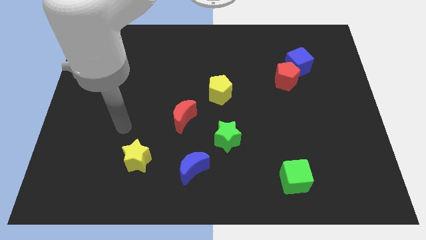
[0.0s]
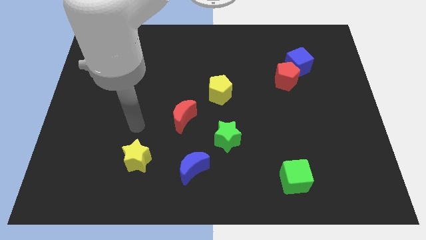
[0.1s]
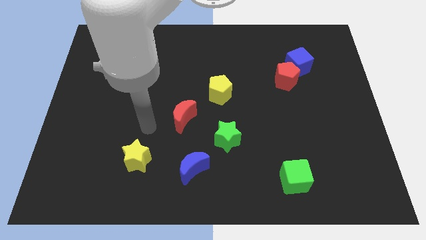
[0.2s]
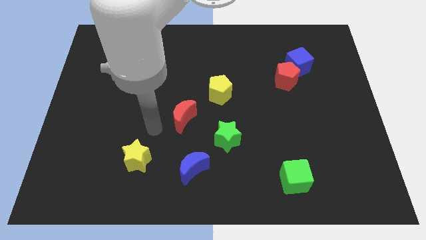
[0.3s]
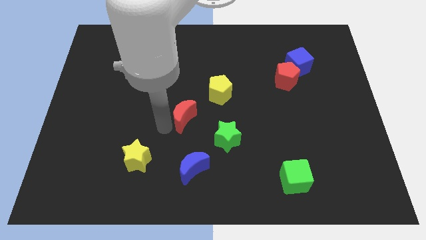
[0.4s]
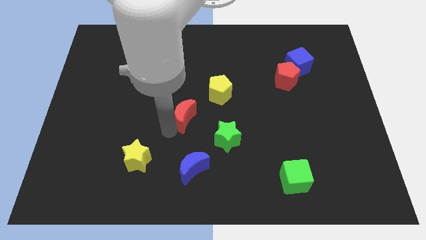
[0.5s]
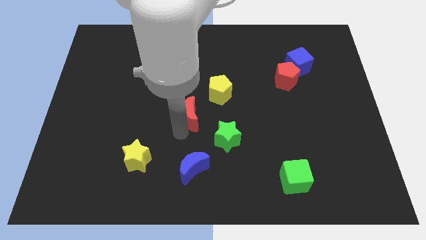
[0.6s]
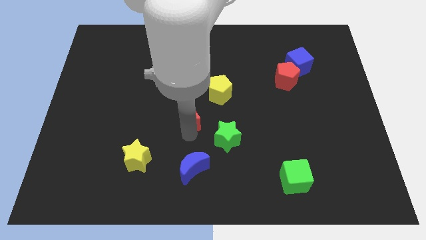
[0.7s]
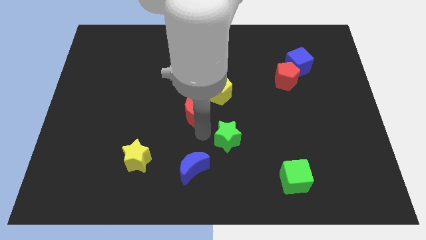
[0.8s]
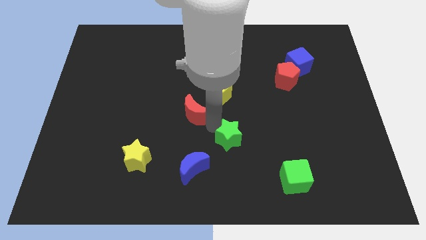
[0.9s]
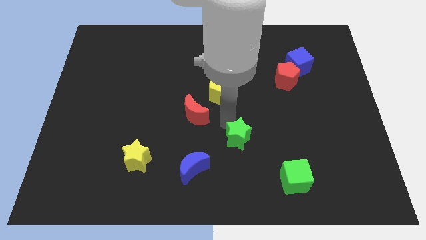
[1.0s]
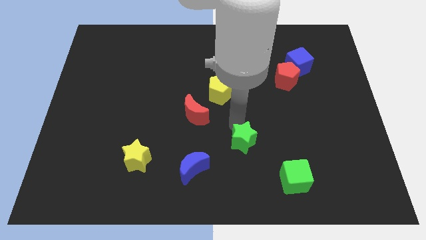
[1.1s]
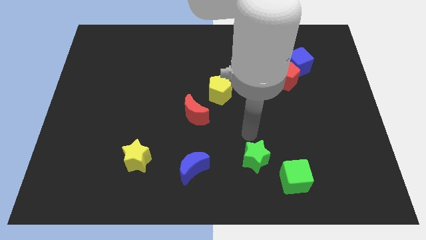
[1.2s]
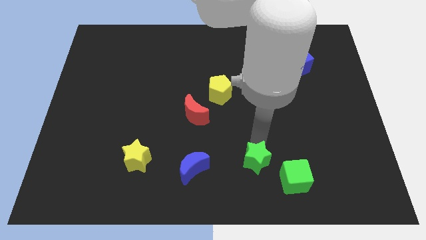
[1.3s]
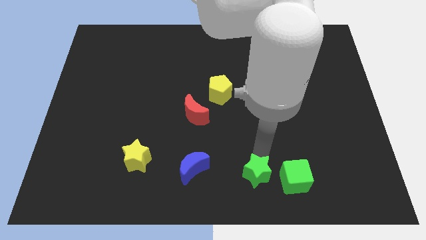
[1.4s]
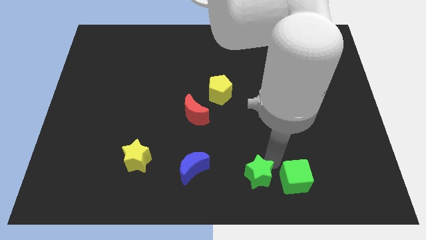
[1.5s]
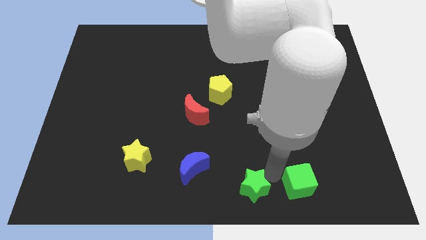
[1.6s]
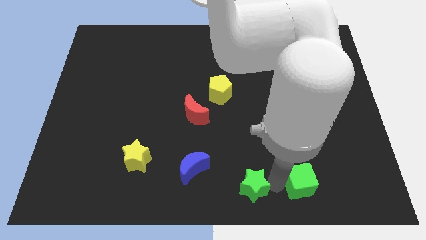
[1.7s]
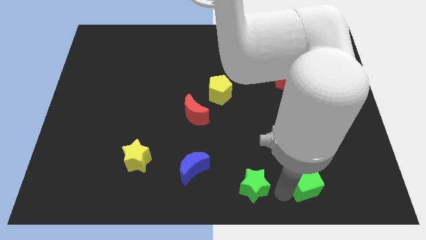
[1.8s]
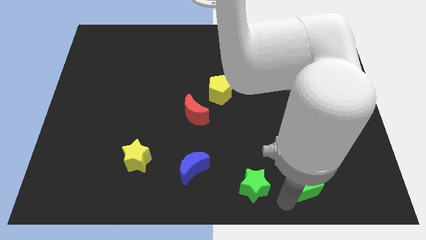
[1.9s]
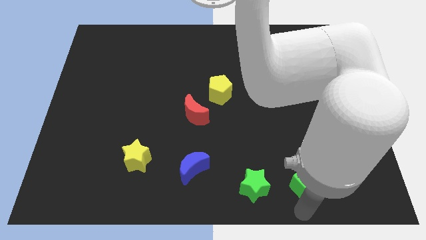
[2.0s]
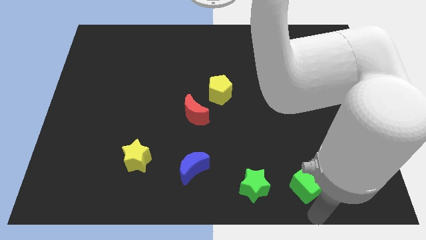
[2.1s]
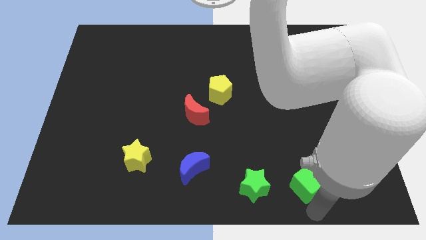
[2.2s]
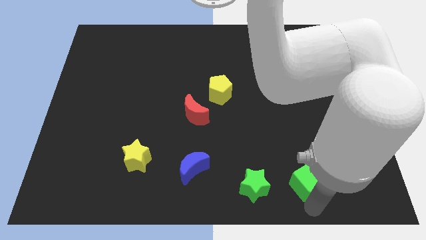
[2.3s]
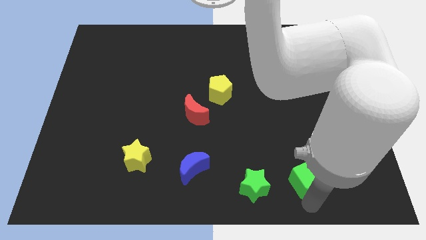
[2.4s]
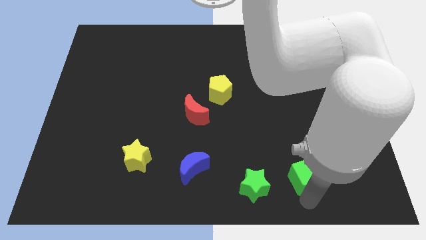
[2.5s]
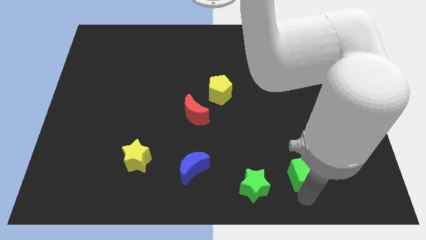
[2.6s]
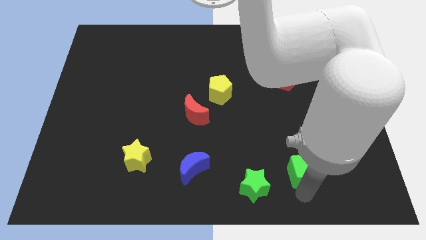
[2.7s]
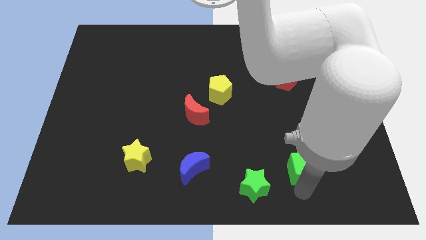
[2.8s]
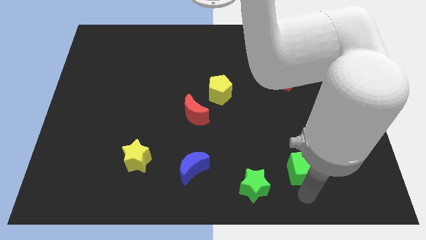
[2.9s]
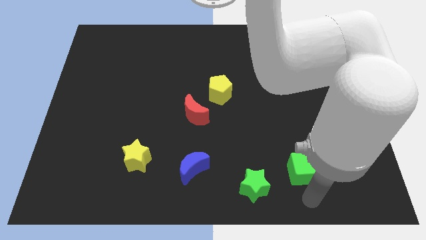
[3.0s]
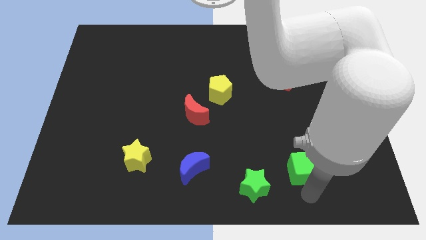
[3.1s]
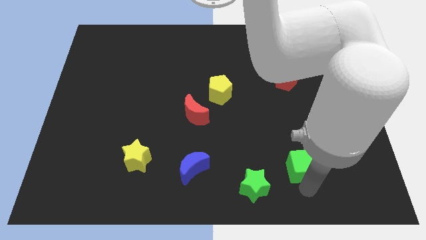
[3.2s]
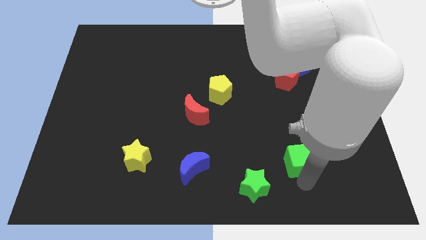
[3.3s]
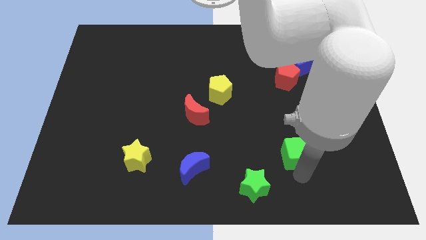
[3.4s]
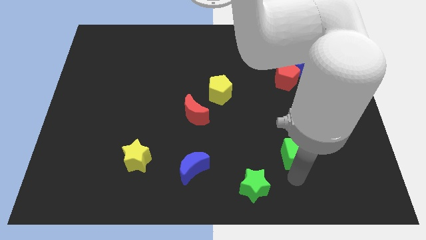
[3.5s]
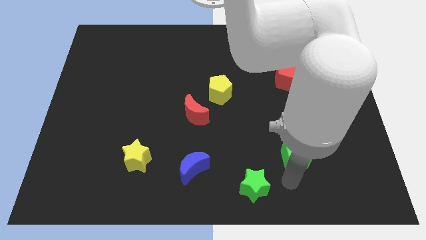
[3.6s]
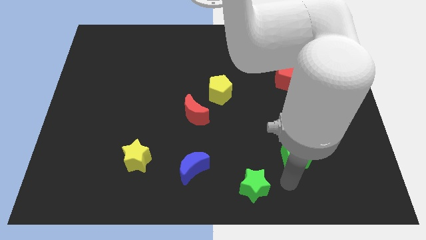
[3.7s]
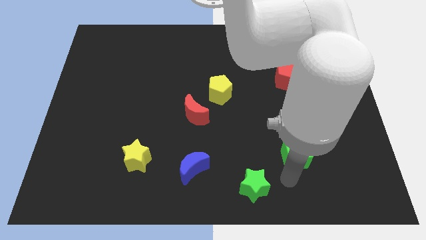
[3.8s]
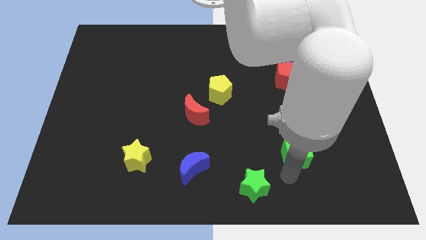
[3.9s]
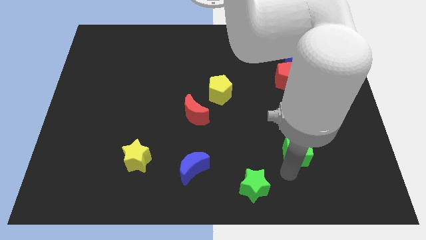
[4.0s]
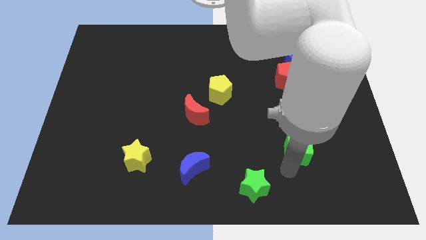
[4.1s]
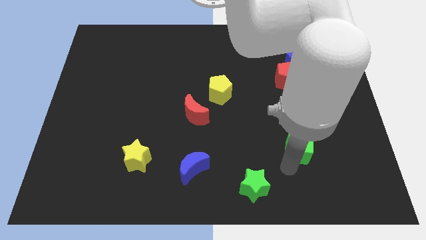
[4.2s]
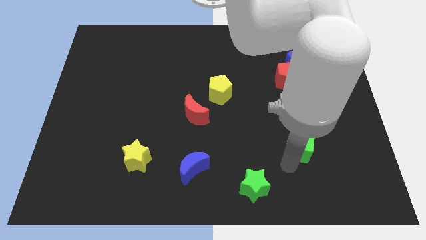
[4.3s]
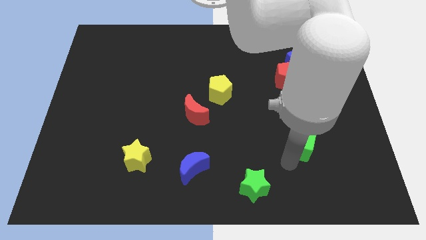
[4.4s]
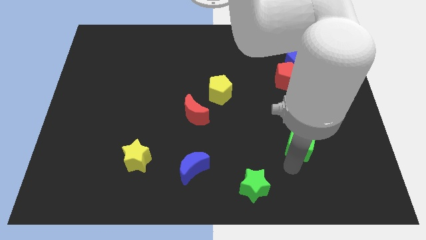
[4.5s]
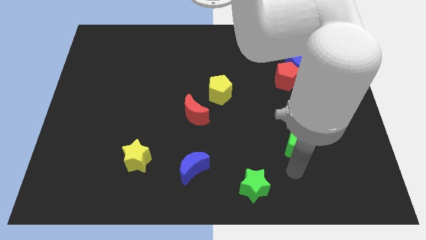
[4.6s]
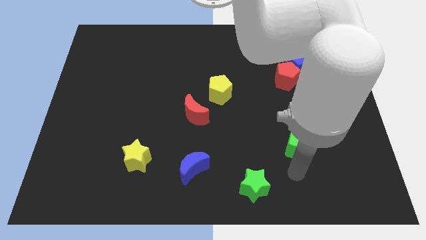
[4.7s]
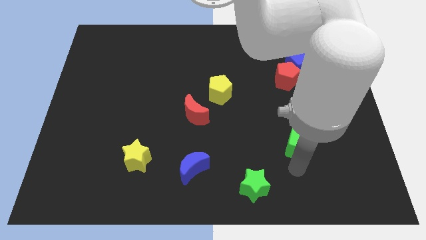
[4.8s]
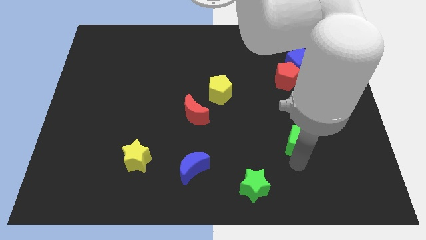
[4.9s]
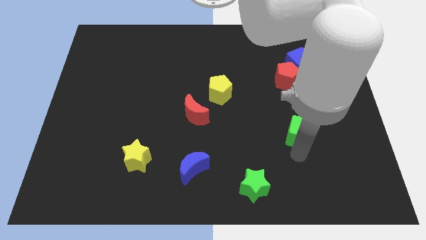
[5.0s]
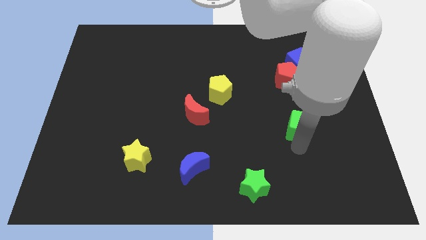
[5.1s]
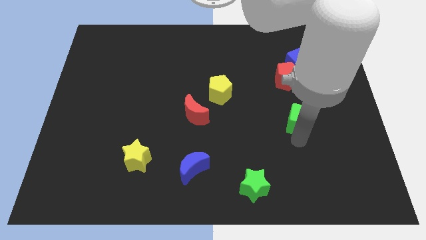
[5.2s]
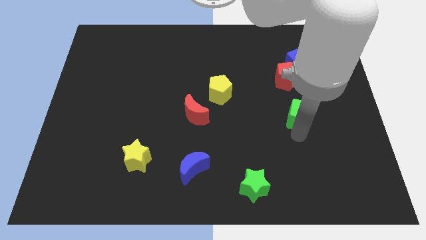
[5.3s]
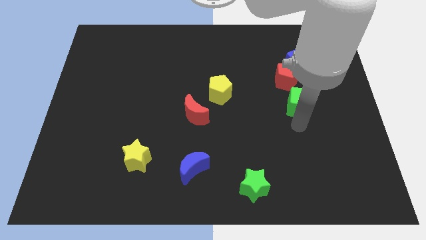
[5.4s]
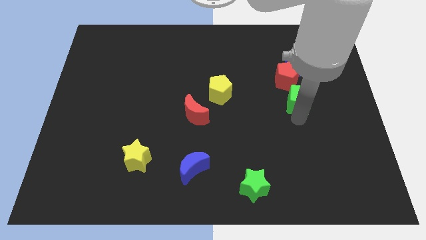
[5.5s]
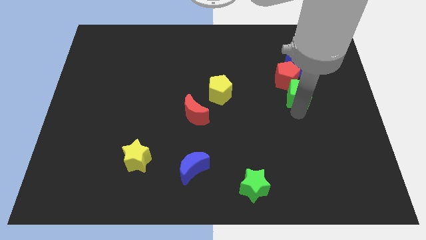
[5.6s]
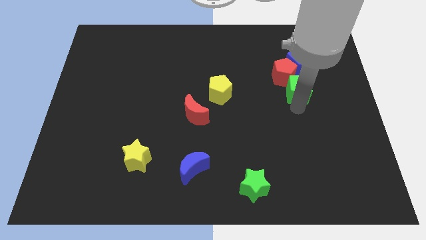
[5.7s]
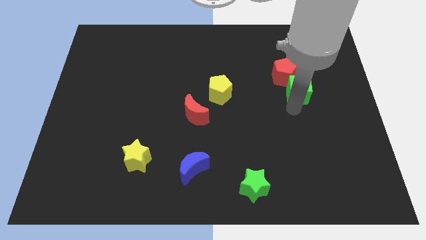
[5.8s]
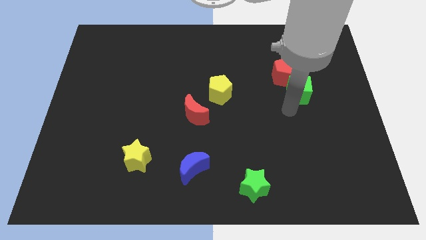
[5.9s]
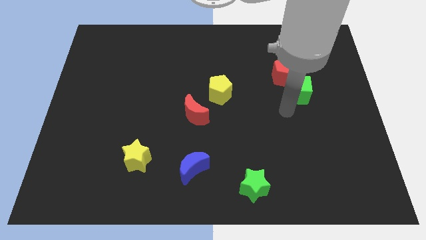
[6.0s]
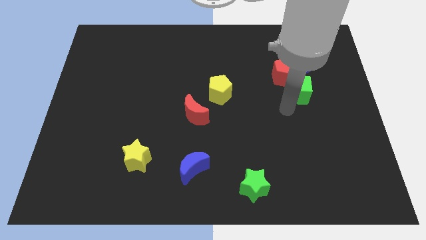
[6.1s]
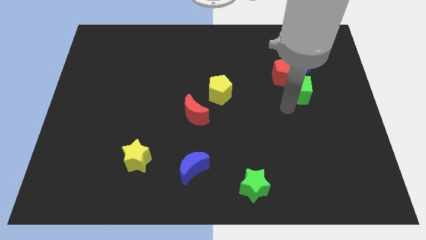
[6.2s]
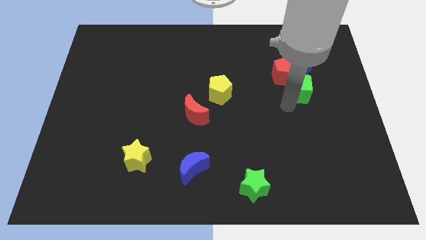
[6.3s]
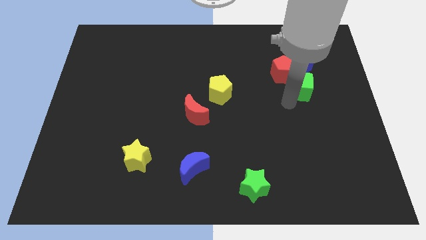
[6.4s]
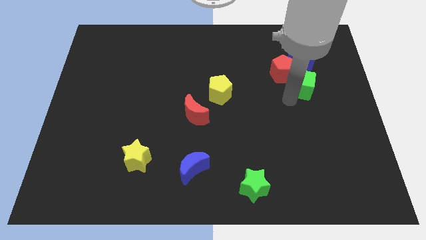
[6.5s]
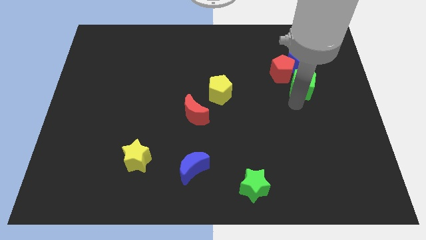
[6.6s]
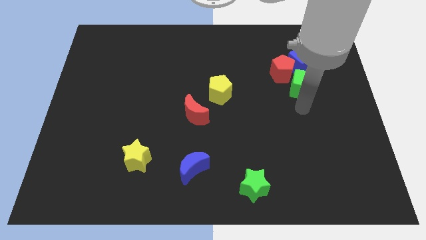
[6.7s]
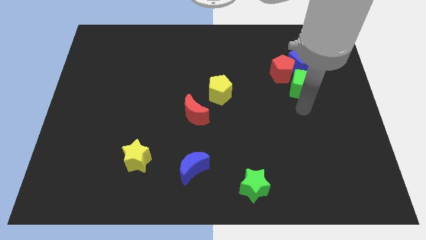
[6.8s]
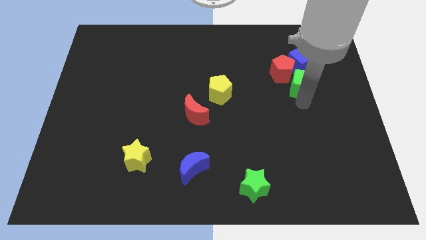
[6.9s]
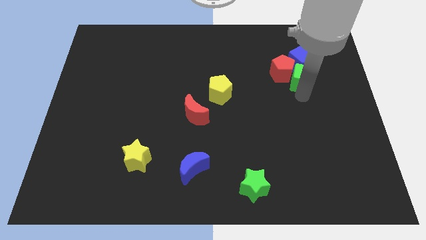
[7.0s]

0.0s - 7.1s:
move the green cube to the blue cube

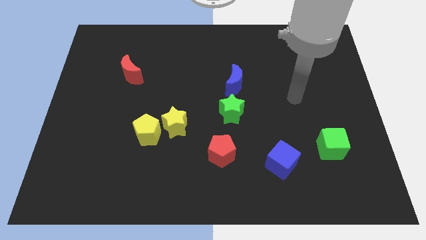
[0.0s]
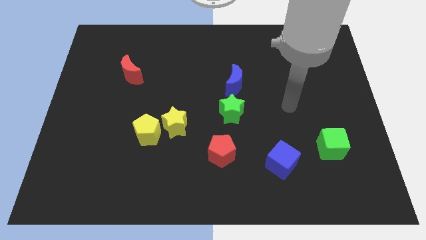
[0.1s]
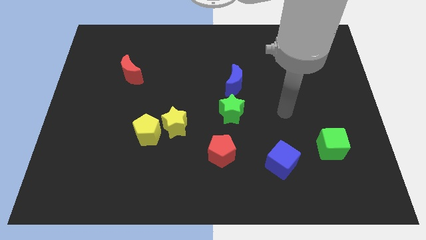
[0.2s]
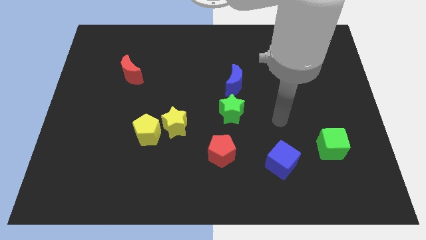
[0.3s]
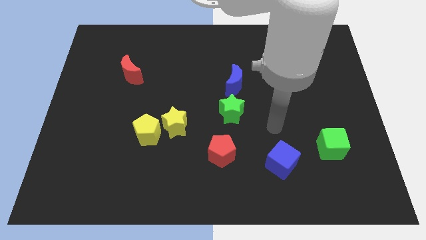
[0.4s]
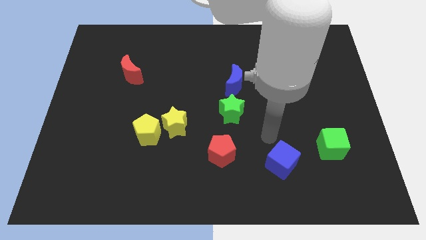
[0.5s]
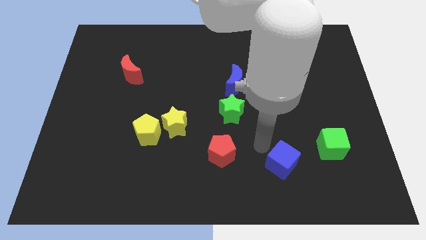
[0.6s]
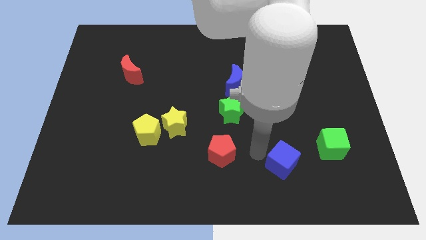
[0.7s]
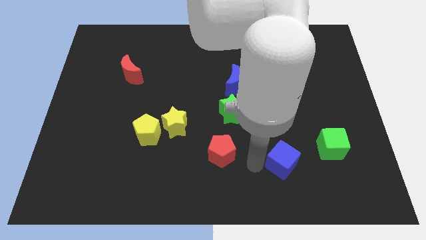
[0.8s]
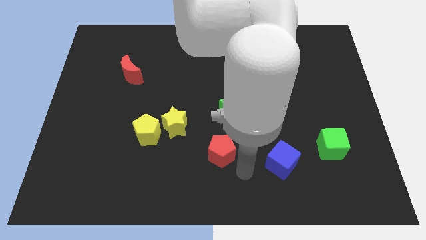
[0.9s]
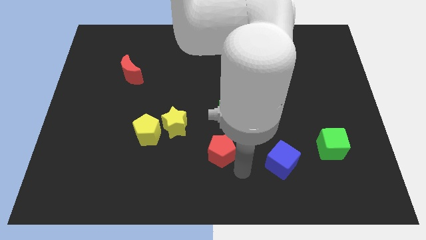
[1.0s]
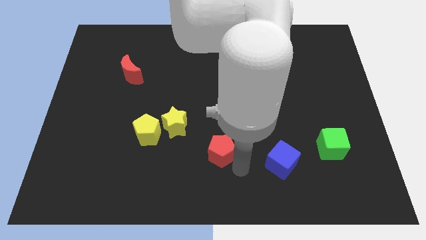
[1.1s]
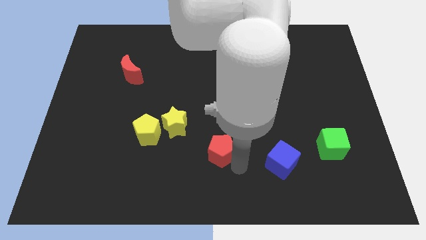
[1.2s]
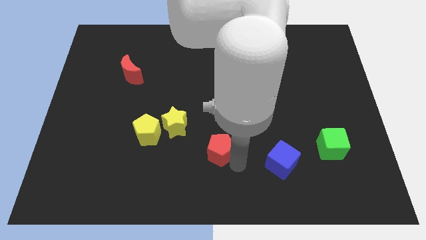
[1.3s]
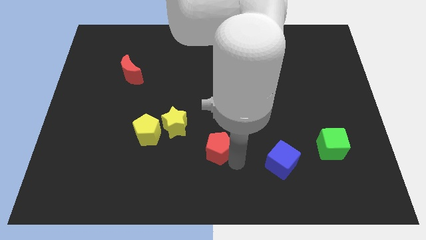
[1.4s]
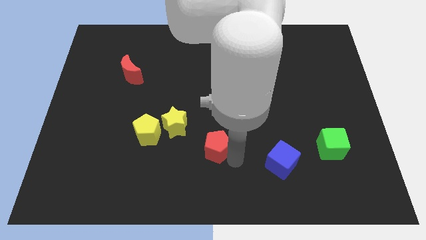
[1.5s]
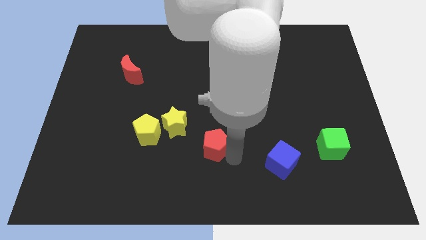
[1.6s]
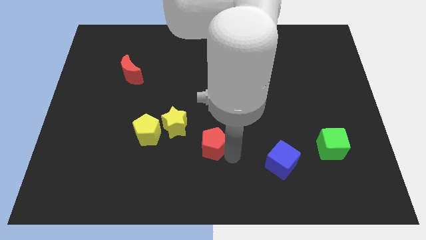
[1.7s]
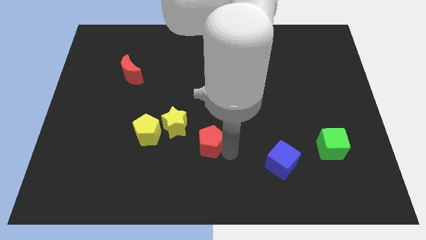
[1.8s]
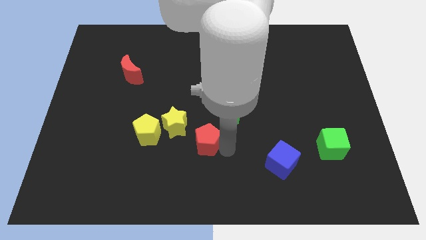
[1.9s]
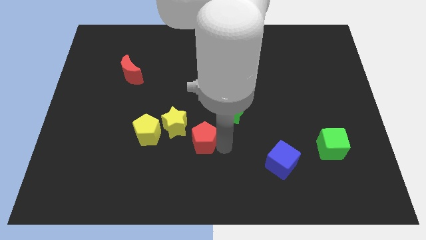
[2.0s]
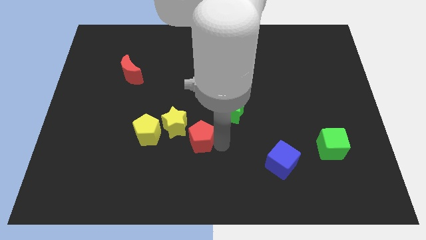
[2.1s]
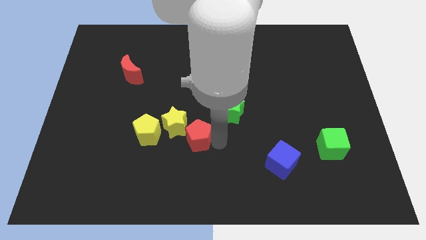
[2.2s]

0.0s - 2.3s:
push the red pentagon to the yellow star
